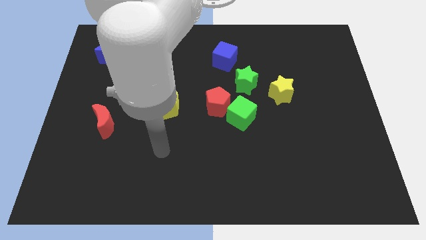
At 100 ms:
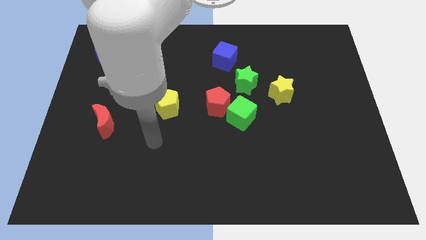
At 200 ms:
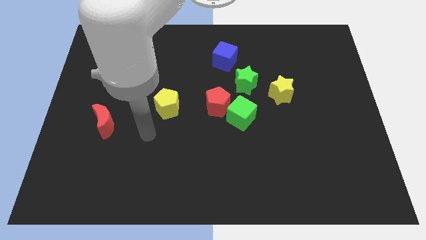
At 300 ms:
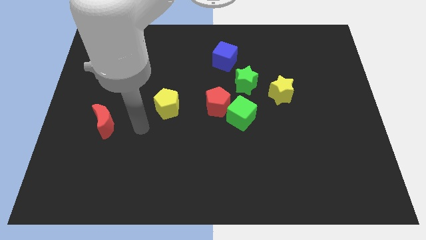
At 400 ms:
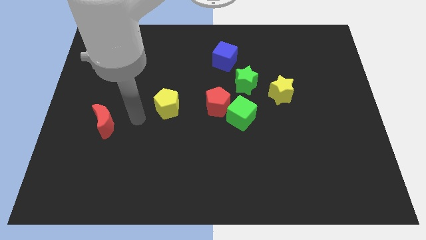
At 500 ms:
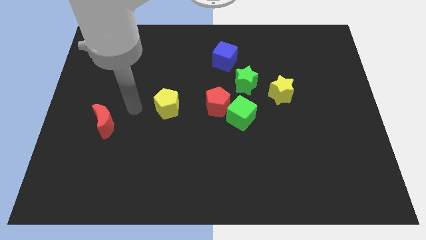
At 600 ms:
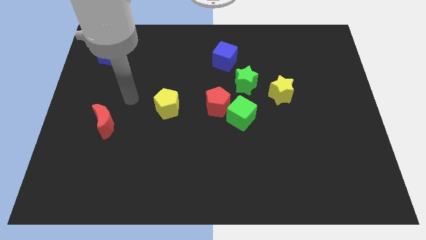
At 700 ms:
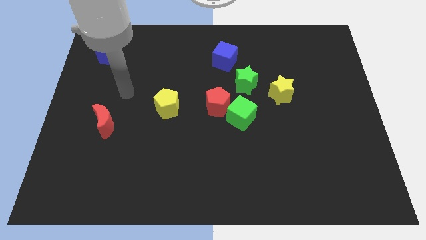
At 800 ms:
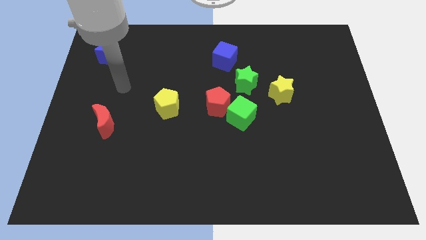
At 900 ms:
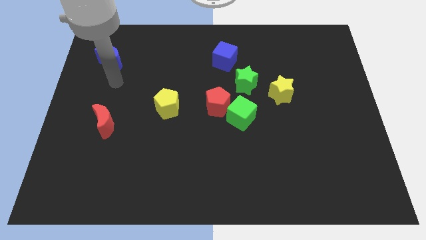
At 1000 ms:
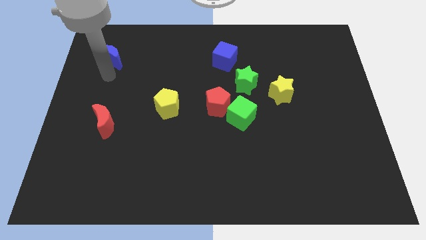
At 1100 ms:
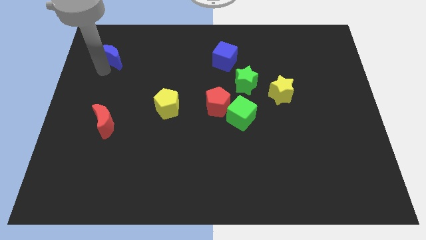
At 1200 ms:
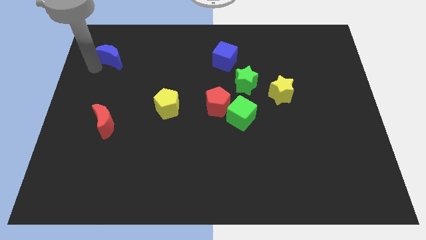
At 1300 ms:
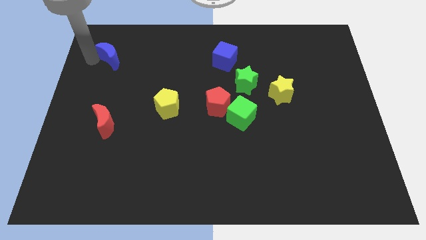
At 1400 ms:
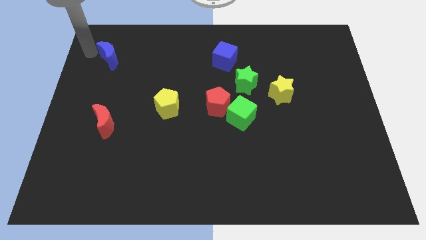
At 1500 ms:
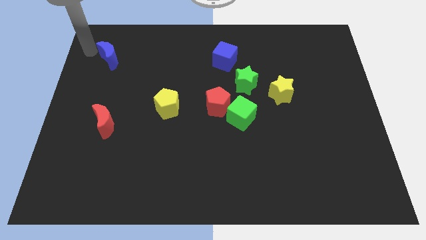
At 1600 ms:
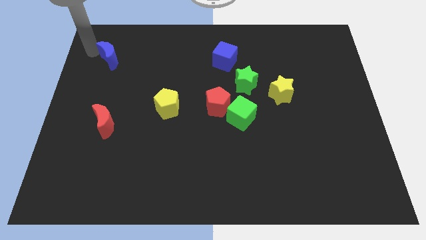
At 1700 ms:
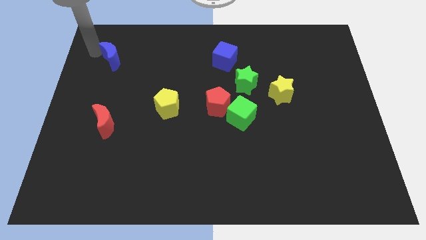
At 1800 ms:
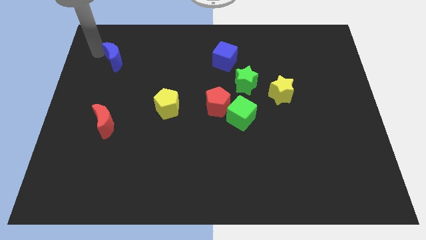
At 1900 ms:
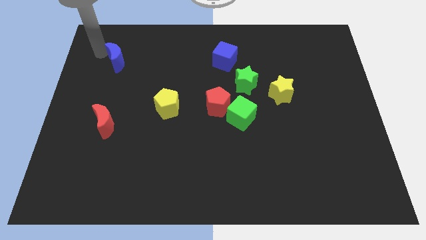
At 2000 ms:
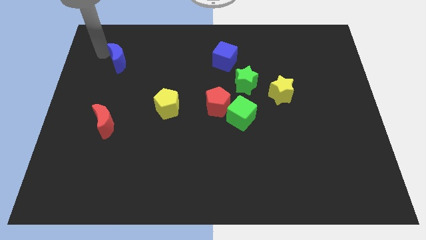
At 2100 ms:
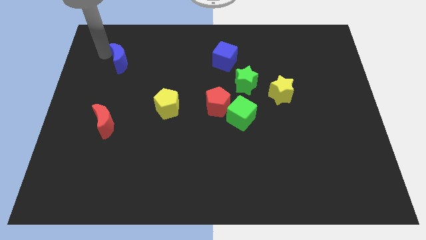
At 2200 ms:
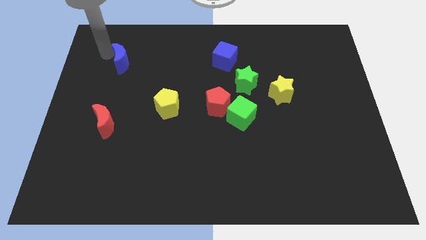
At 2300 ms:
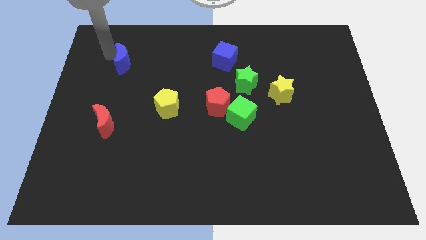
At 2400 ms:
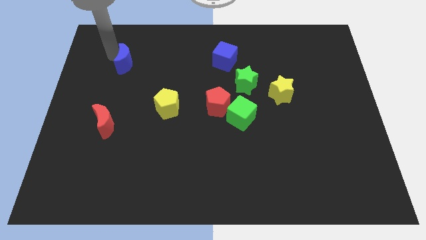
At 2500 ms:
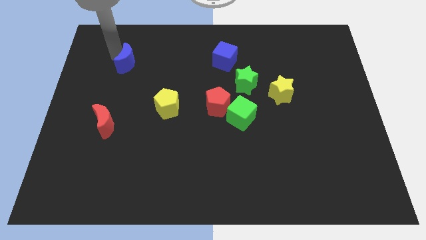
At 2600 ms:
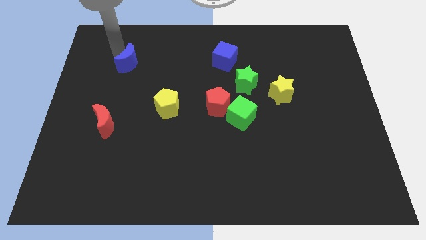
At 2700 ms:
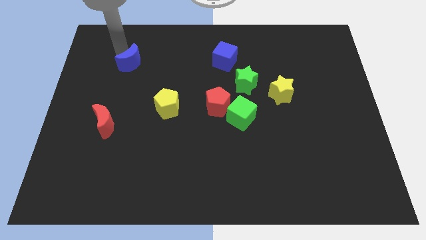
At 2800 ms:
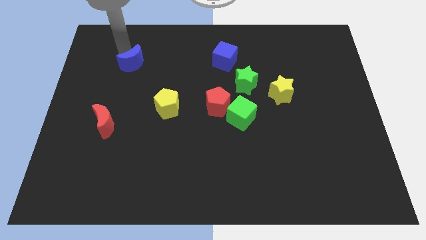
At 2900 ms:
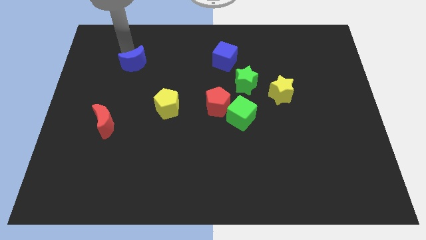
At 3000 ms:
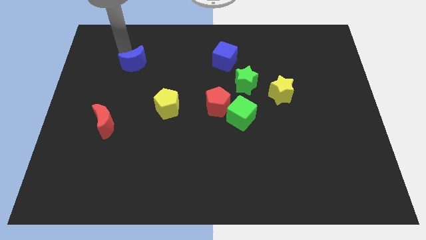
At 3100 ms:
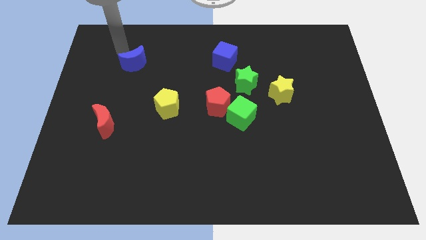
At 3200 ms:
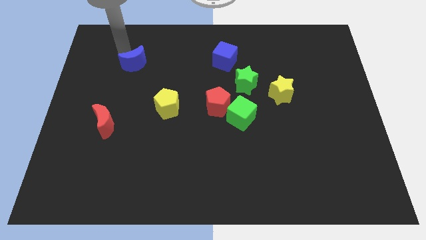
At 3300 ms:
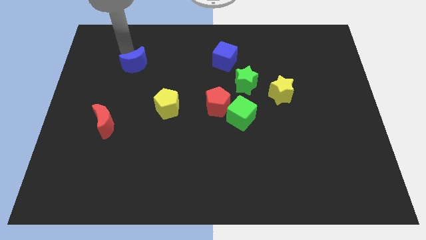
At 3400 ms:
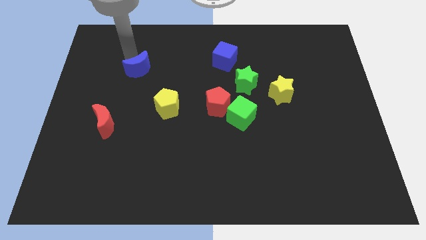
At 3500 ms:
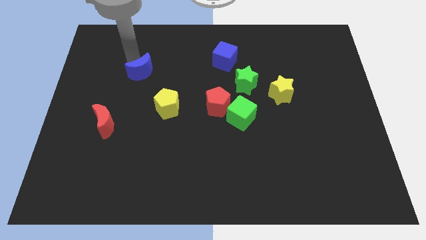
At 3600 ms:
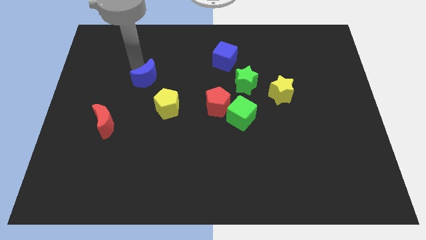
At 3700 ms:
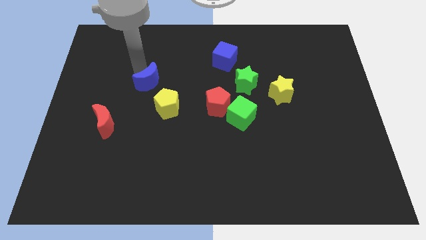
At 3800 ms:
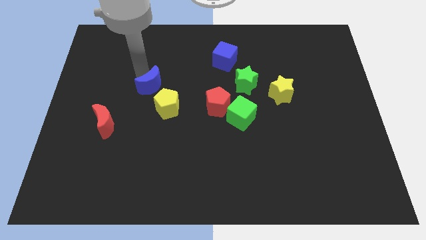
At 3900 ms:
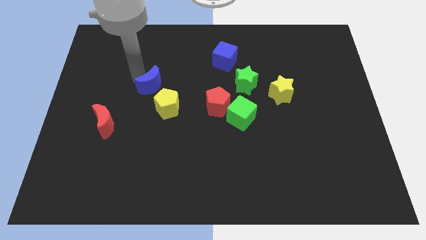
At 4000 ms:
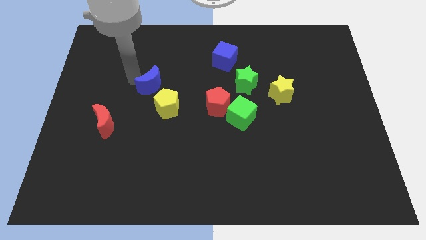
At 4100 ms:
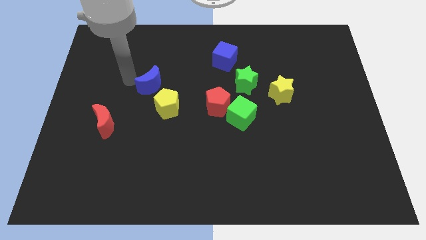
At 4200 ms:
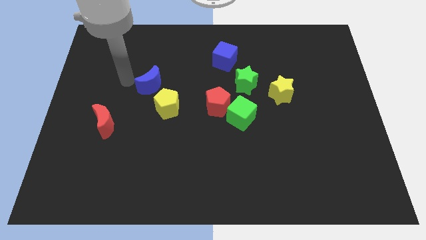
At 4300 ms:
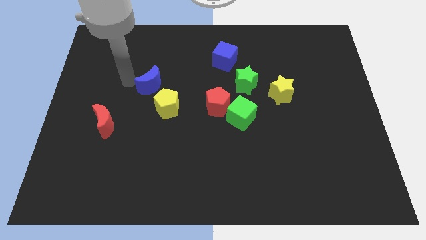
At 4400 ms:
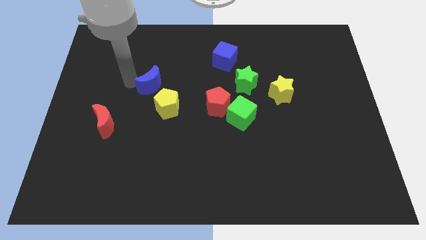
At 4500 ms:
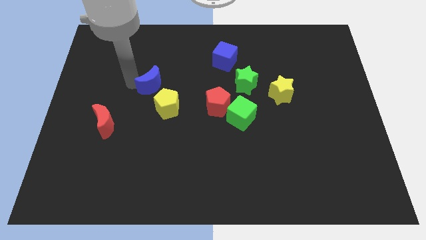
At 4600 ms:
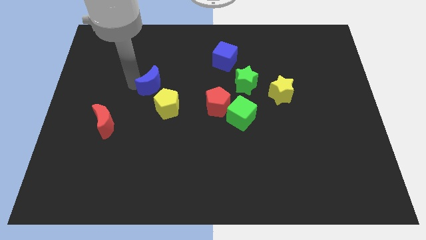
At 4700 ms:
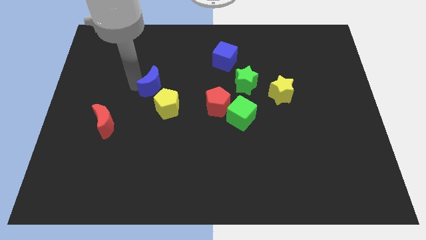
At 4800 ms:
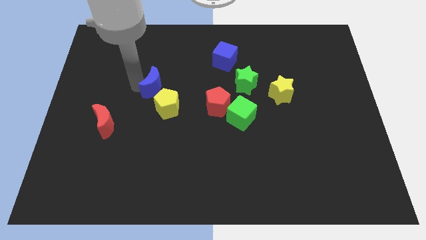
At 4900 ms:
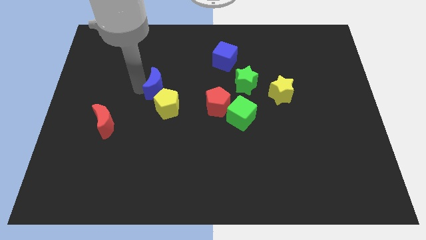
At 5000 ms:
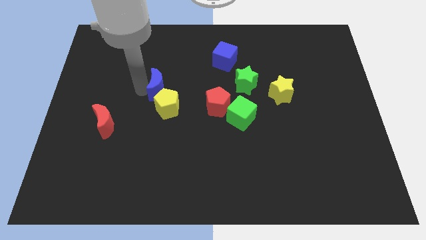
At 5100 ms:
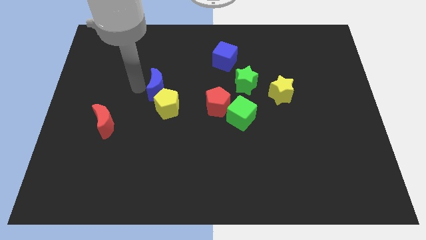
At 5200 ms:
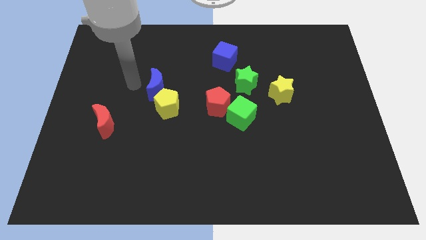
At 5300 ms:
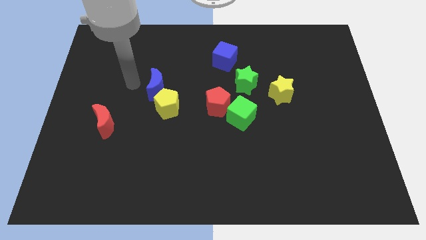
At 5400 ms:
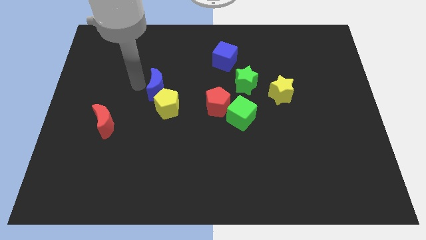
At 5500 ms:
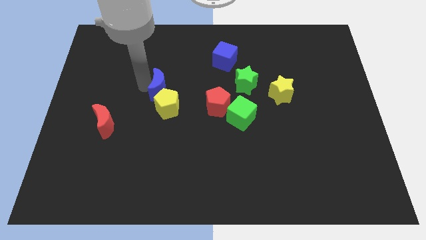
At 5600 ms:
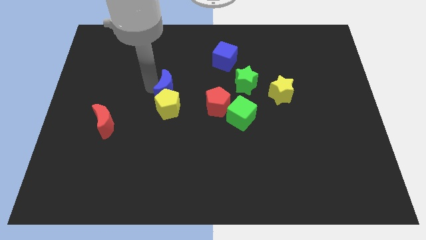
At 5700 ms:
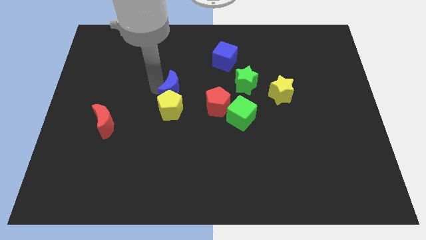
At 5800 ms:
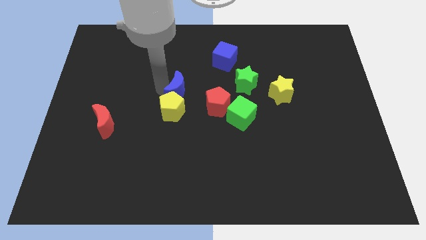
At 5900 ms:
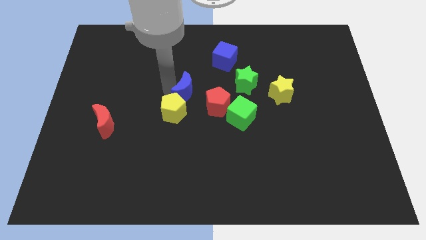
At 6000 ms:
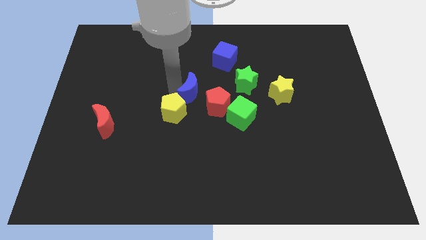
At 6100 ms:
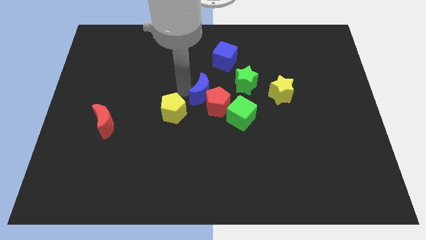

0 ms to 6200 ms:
slide the blue moon next to the red pentagon

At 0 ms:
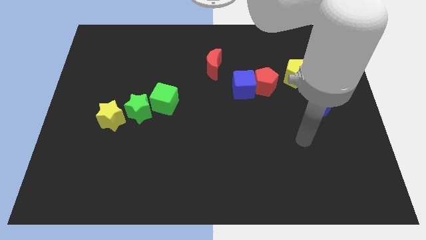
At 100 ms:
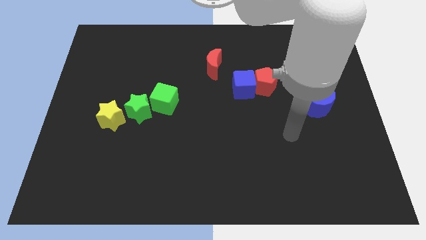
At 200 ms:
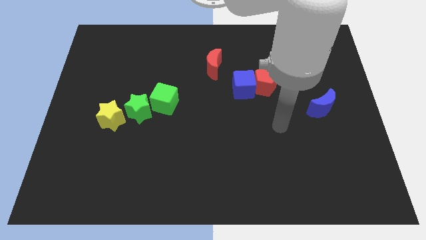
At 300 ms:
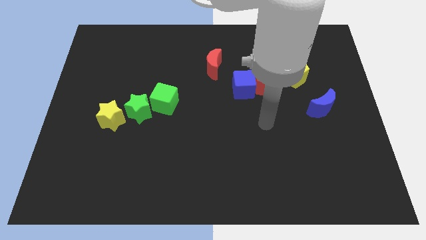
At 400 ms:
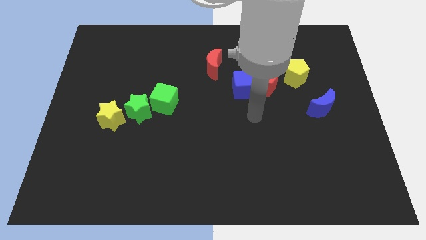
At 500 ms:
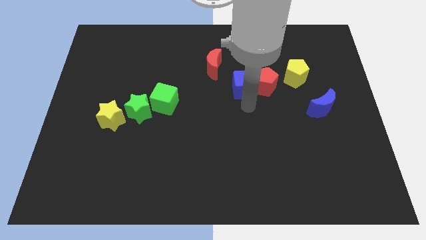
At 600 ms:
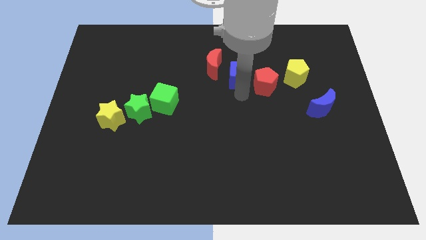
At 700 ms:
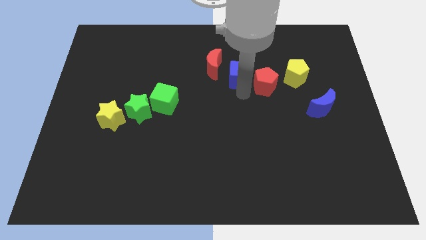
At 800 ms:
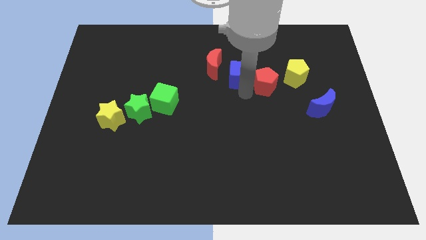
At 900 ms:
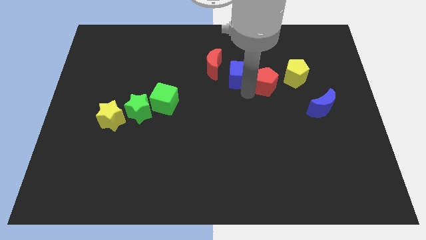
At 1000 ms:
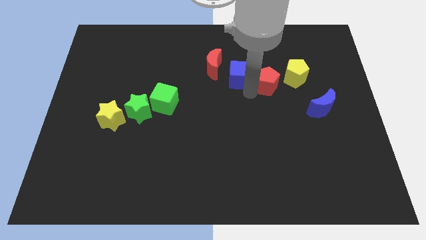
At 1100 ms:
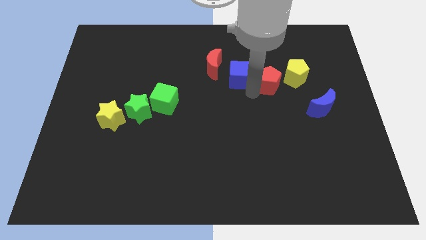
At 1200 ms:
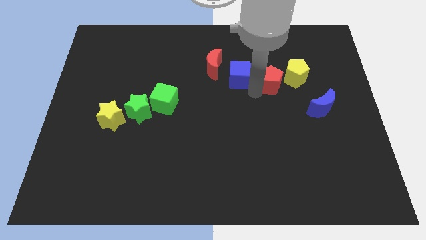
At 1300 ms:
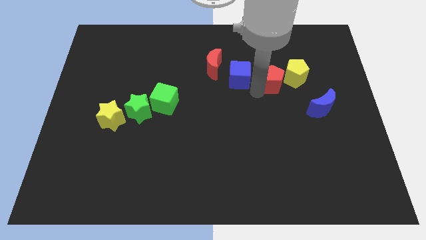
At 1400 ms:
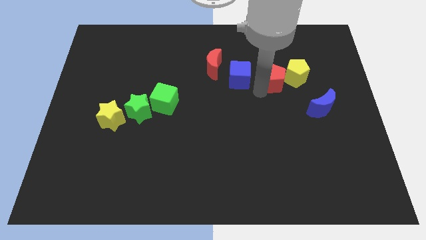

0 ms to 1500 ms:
move the red pentagon towards the yellow pentagon
